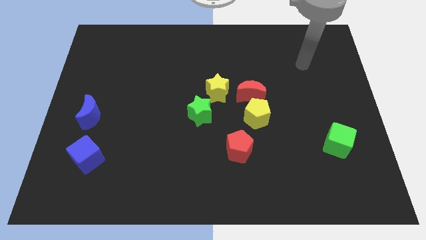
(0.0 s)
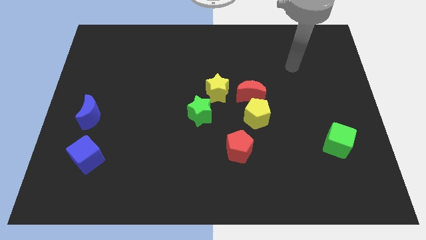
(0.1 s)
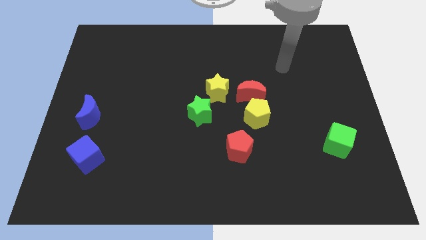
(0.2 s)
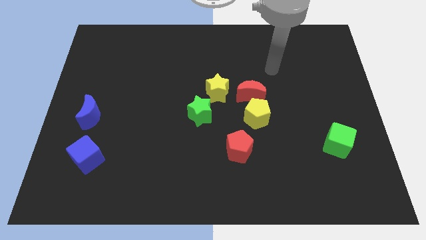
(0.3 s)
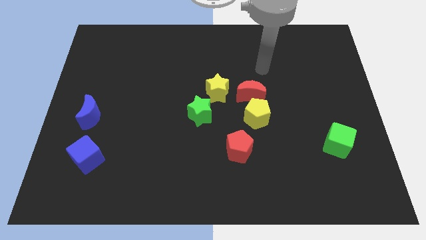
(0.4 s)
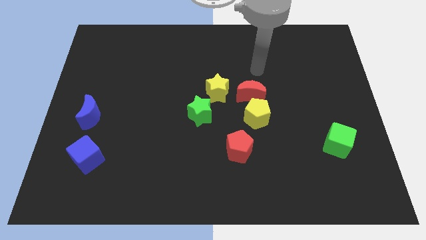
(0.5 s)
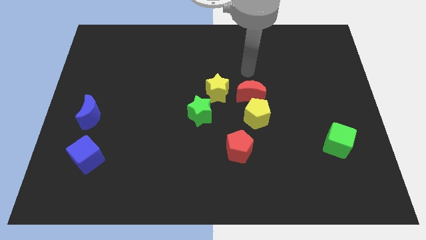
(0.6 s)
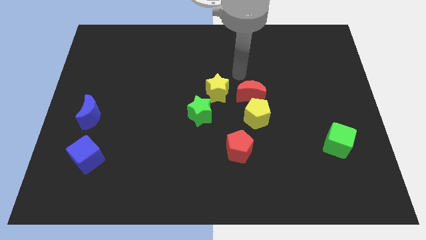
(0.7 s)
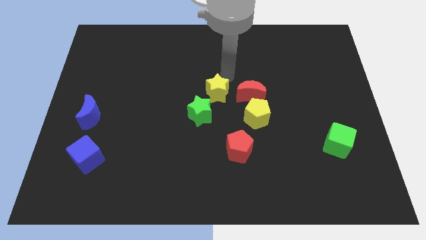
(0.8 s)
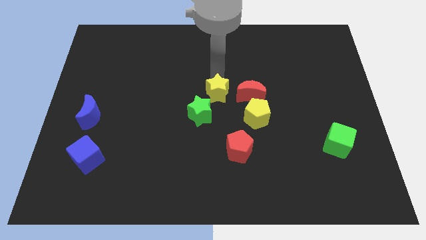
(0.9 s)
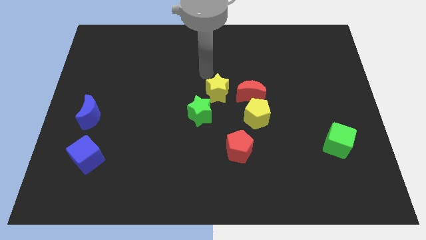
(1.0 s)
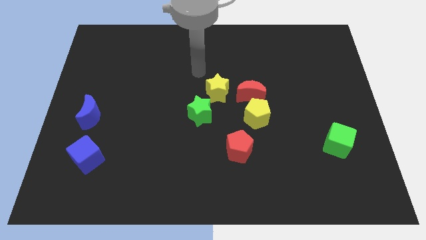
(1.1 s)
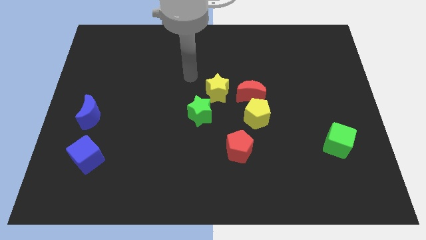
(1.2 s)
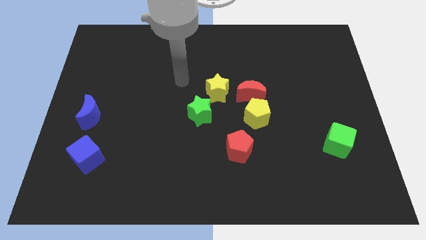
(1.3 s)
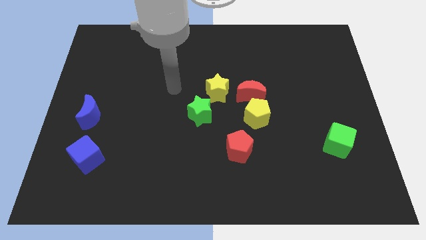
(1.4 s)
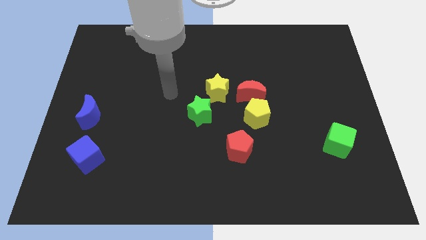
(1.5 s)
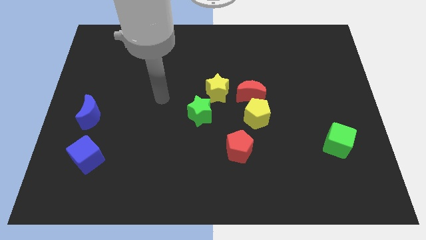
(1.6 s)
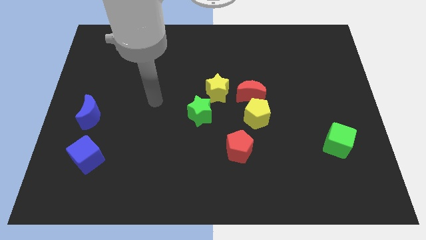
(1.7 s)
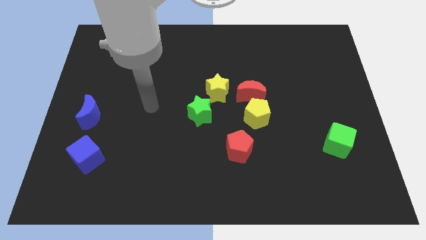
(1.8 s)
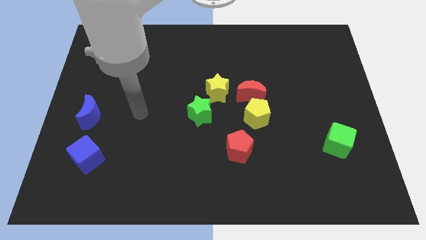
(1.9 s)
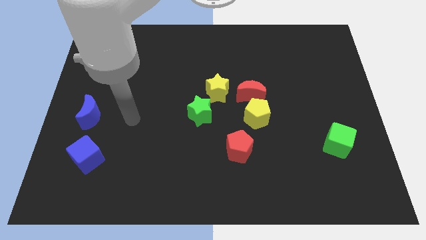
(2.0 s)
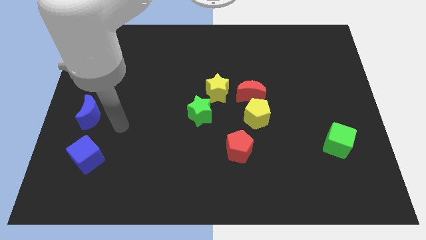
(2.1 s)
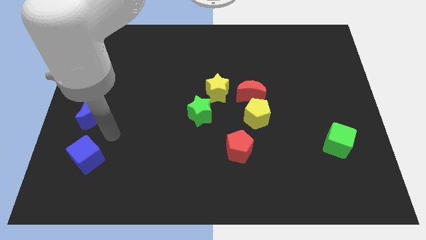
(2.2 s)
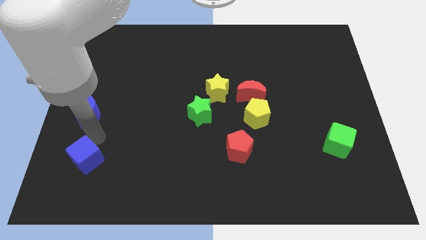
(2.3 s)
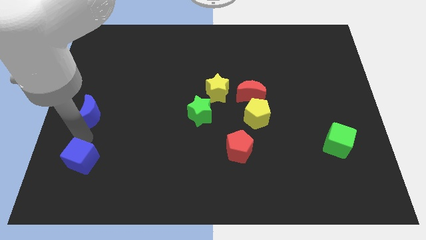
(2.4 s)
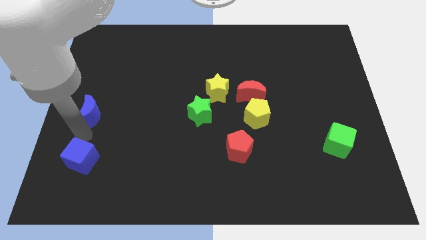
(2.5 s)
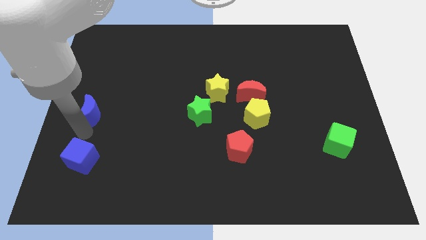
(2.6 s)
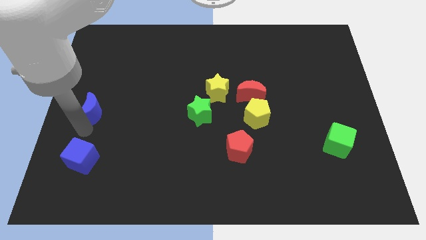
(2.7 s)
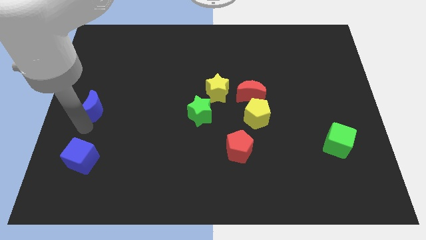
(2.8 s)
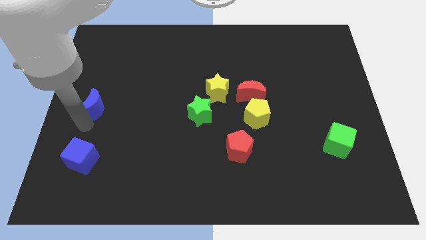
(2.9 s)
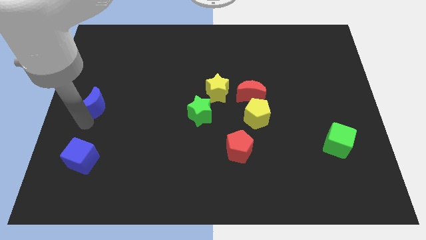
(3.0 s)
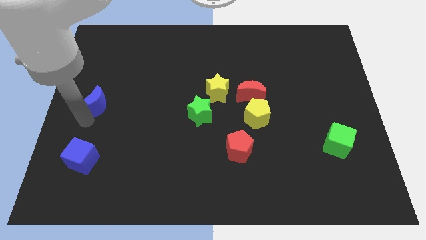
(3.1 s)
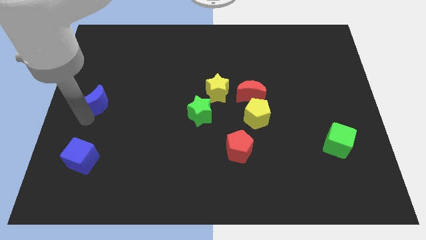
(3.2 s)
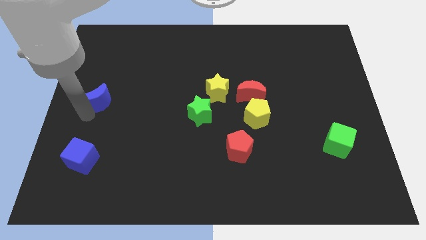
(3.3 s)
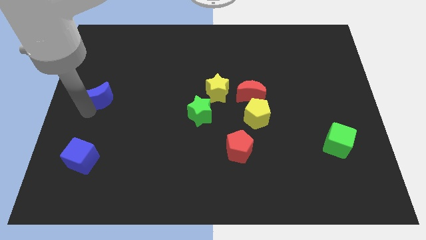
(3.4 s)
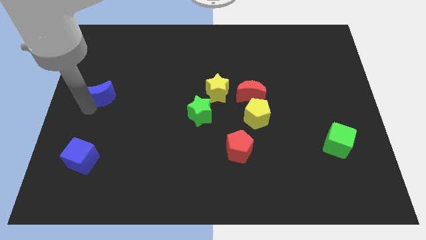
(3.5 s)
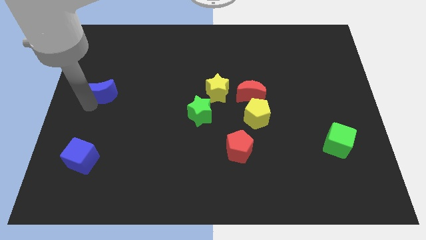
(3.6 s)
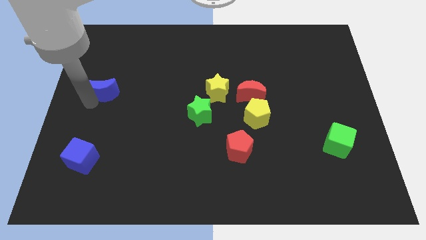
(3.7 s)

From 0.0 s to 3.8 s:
push the blue moon up a bit

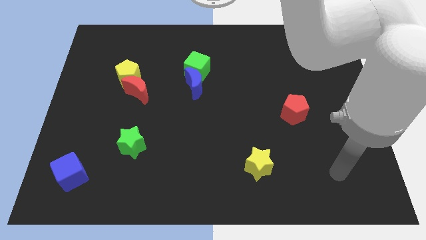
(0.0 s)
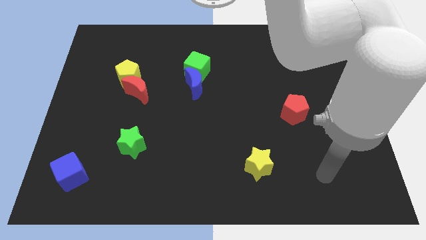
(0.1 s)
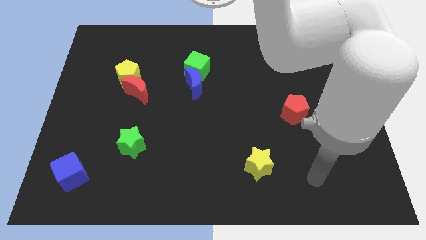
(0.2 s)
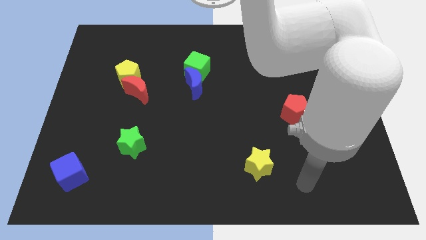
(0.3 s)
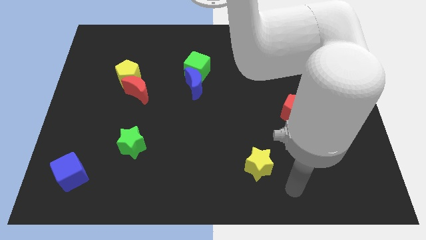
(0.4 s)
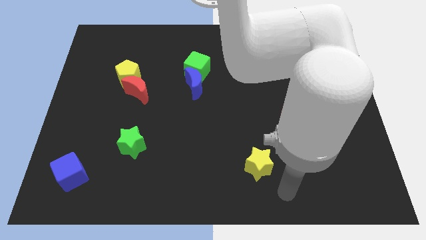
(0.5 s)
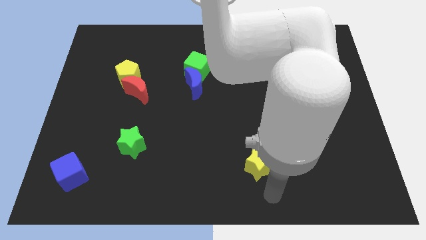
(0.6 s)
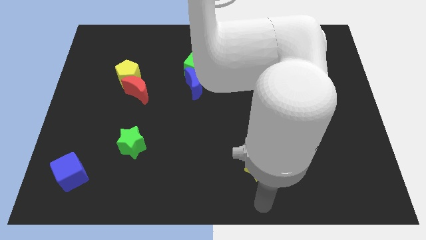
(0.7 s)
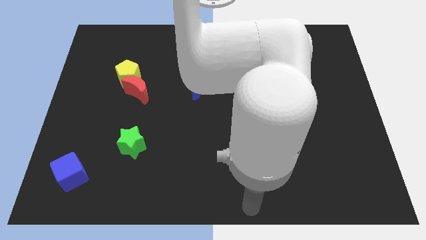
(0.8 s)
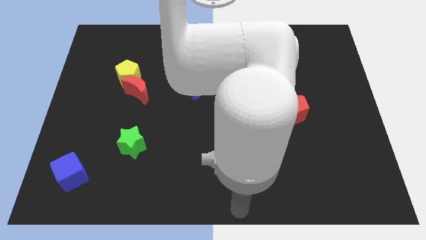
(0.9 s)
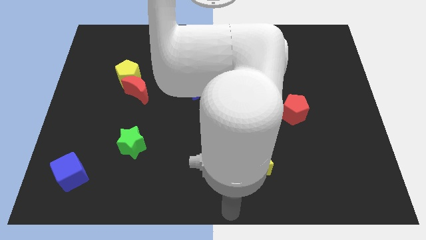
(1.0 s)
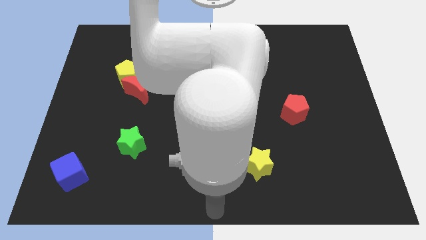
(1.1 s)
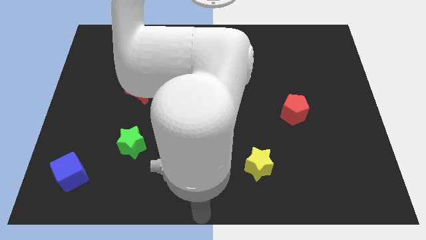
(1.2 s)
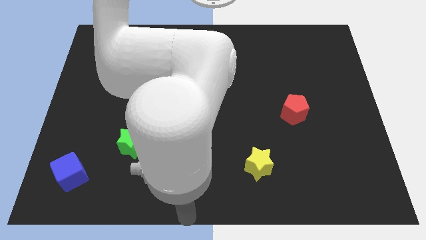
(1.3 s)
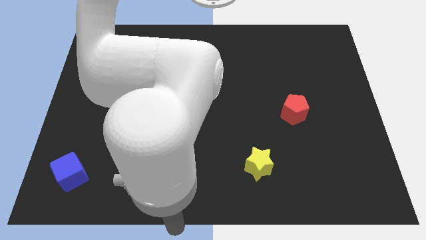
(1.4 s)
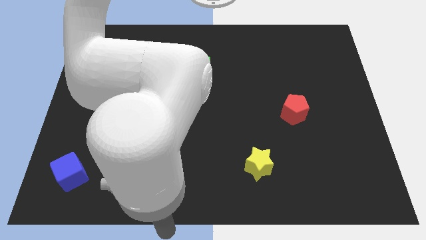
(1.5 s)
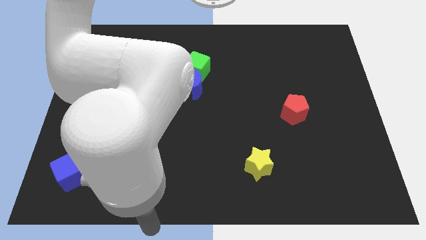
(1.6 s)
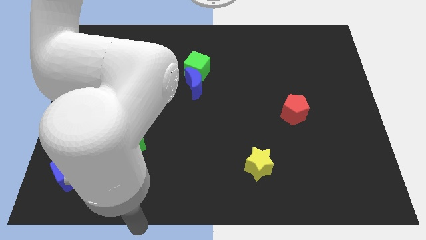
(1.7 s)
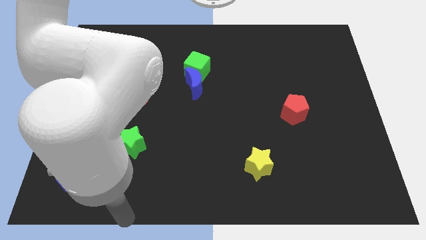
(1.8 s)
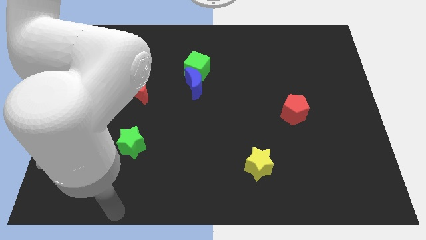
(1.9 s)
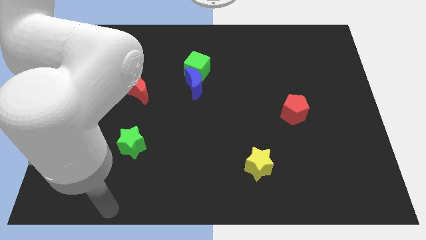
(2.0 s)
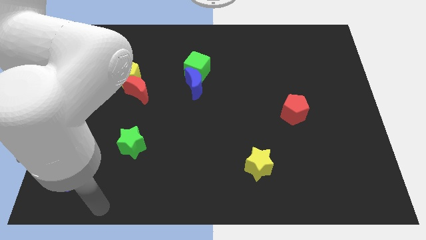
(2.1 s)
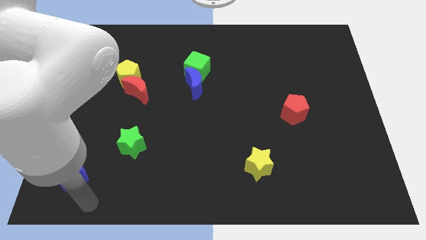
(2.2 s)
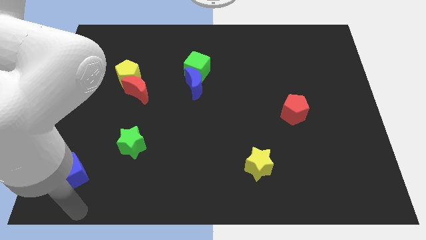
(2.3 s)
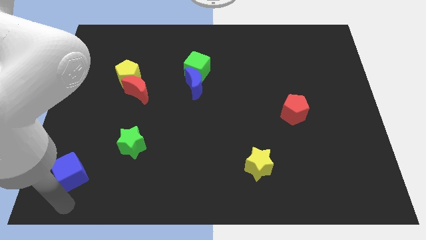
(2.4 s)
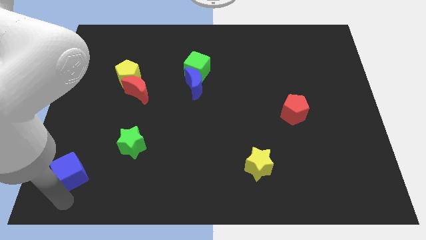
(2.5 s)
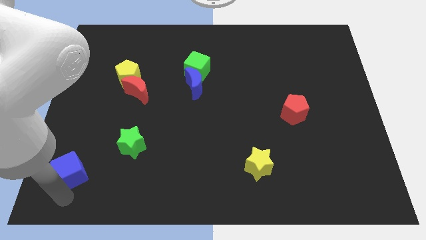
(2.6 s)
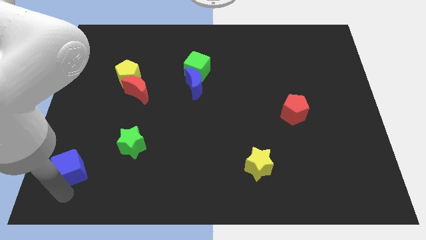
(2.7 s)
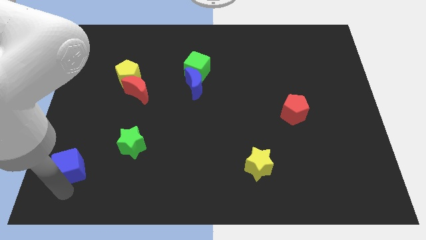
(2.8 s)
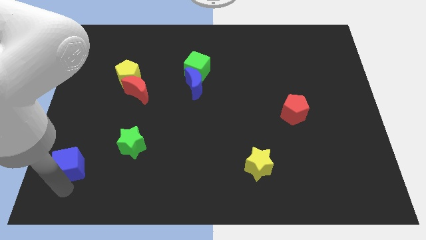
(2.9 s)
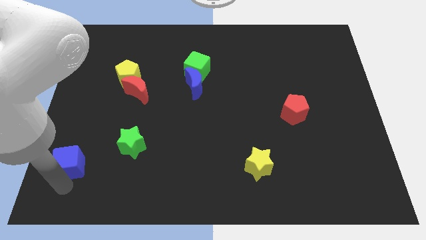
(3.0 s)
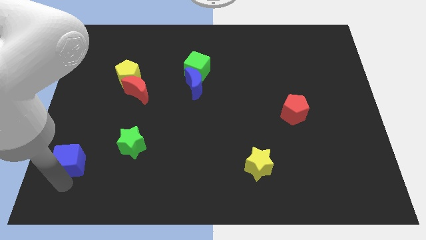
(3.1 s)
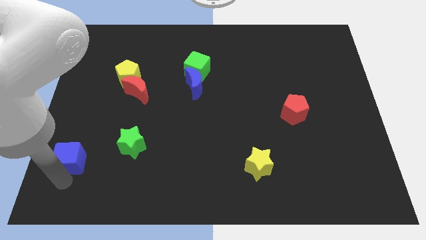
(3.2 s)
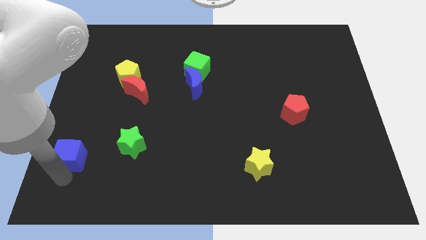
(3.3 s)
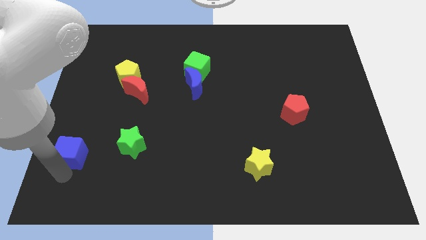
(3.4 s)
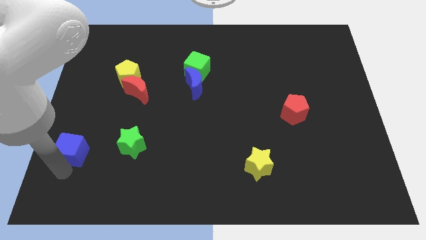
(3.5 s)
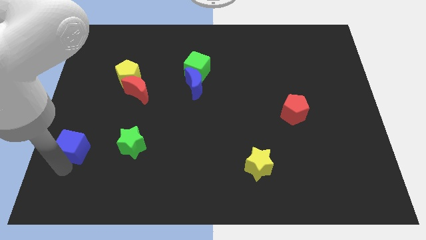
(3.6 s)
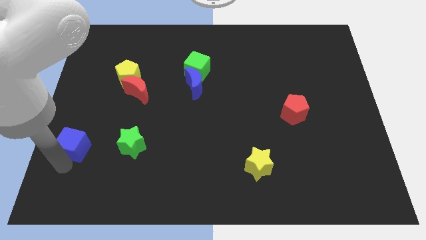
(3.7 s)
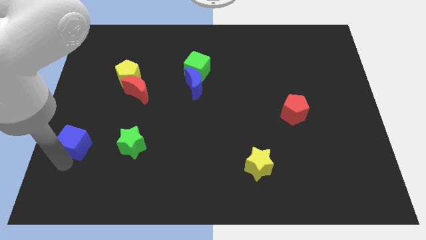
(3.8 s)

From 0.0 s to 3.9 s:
slide the blue cube upwards slightly
